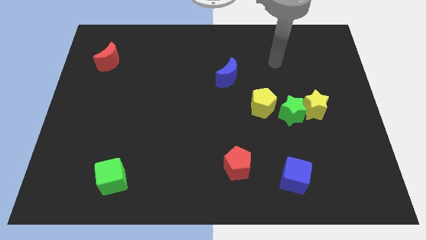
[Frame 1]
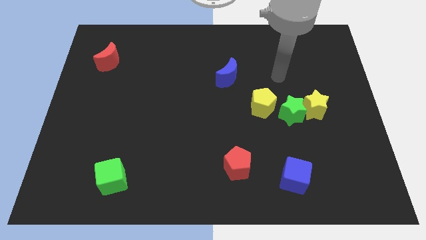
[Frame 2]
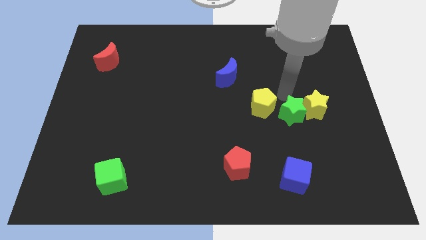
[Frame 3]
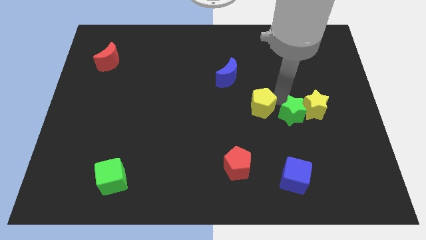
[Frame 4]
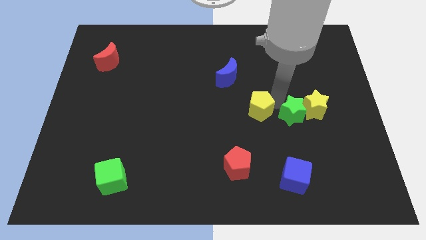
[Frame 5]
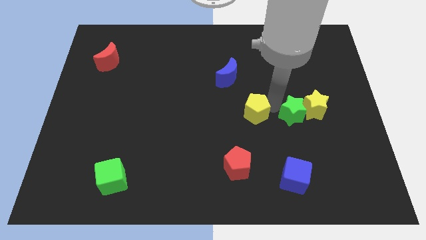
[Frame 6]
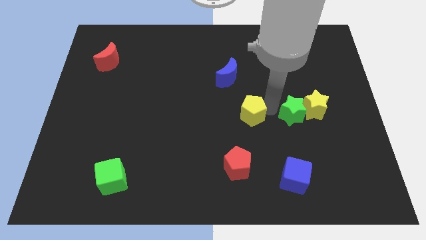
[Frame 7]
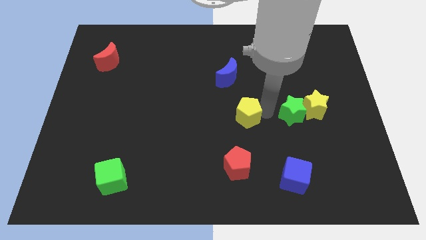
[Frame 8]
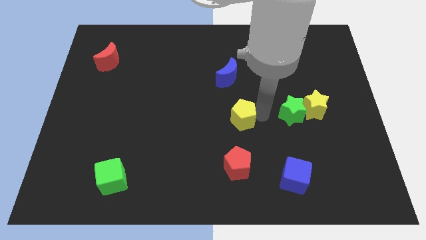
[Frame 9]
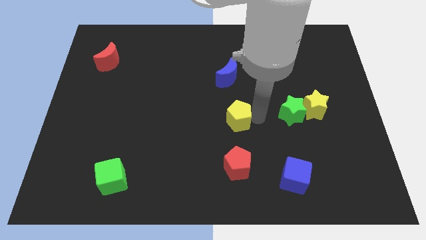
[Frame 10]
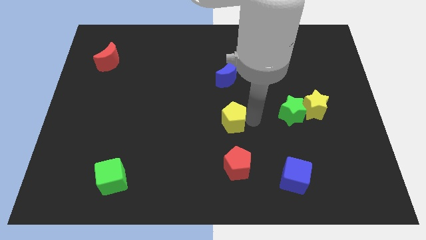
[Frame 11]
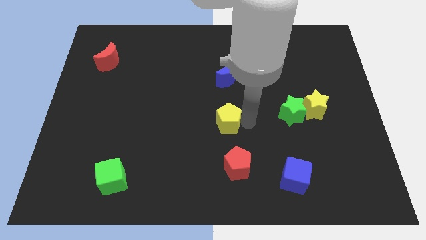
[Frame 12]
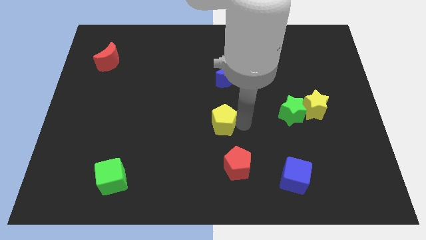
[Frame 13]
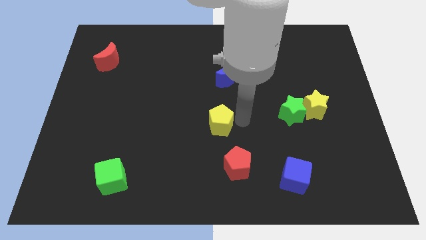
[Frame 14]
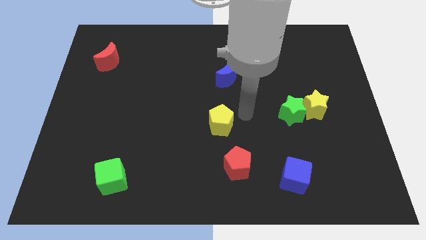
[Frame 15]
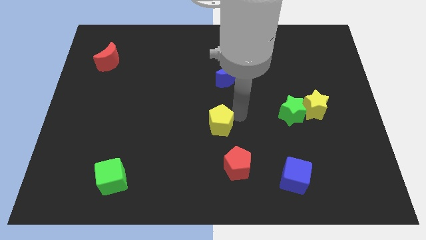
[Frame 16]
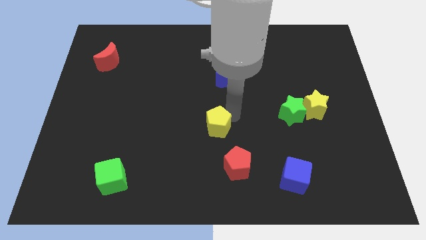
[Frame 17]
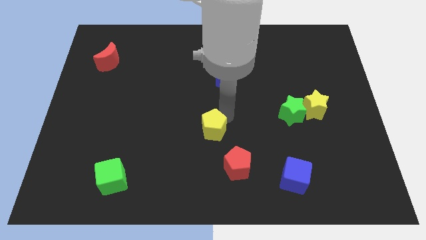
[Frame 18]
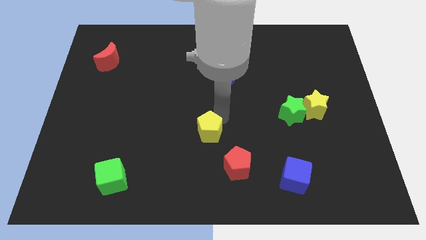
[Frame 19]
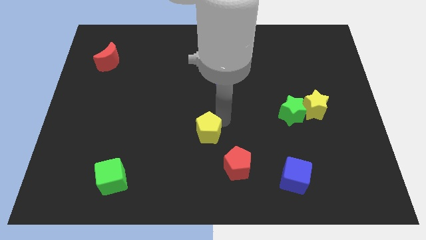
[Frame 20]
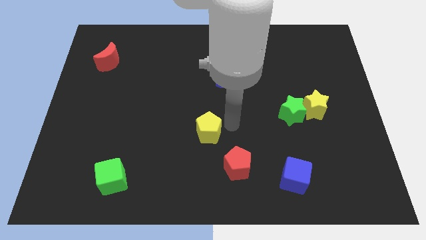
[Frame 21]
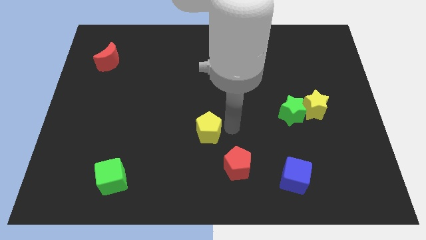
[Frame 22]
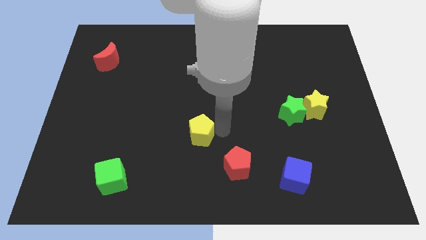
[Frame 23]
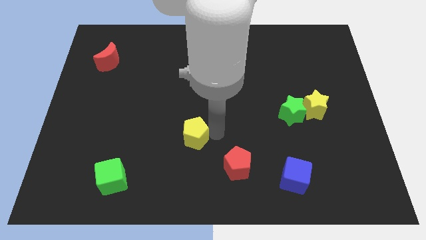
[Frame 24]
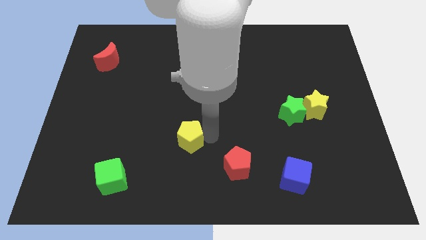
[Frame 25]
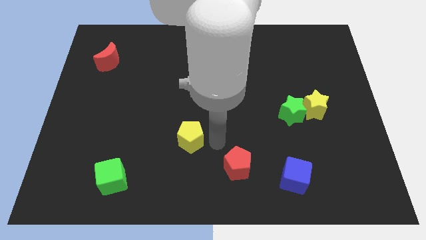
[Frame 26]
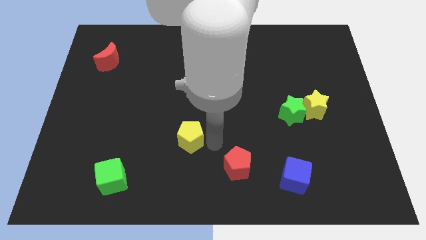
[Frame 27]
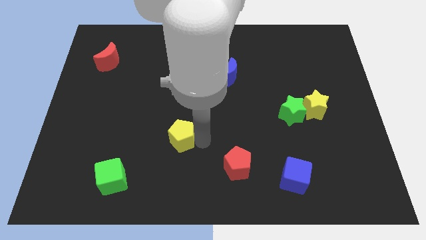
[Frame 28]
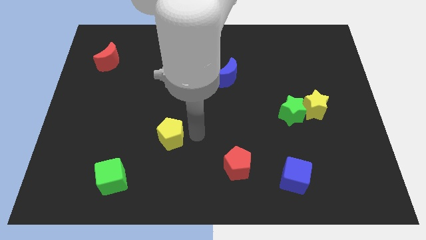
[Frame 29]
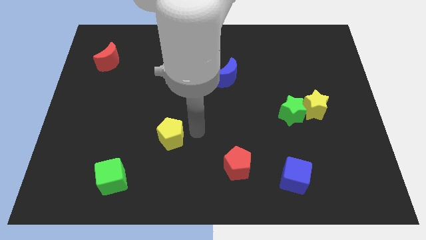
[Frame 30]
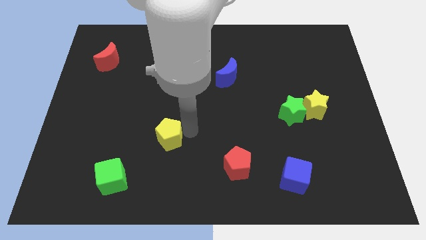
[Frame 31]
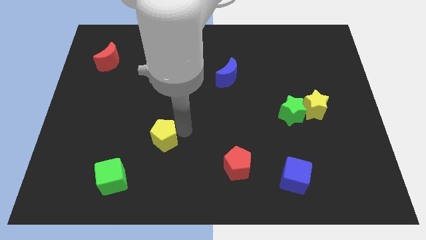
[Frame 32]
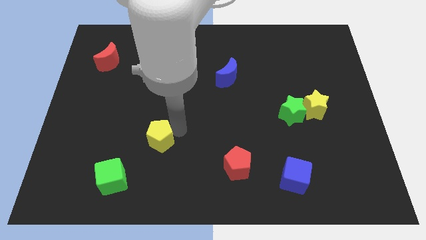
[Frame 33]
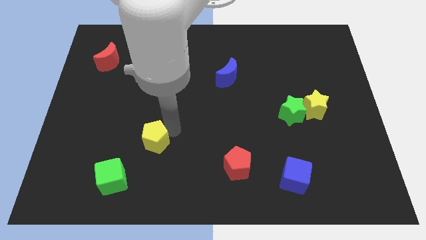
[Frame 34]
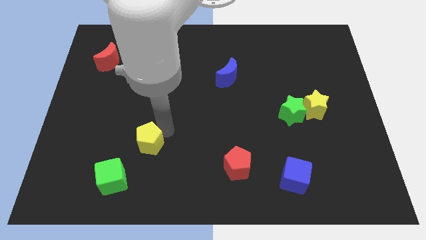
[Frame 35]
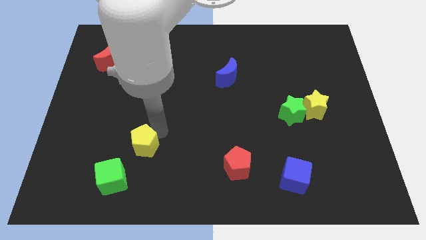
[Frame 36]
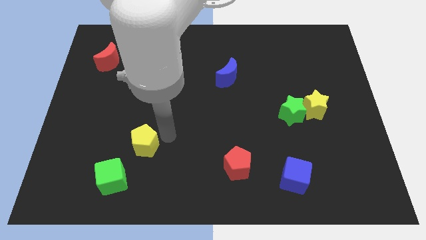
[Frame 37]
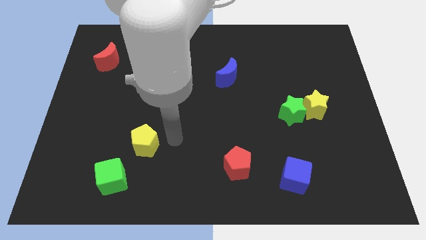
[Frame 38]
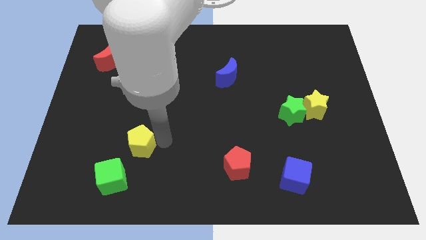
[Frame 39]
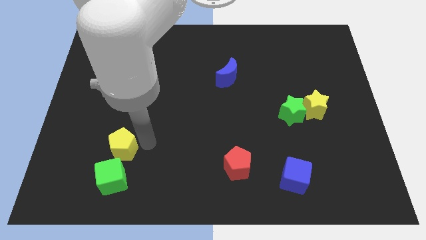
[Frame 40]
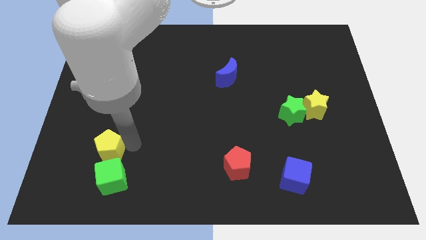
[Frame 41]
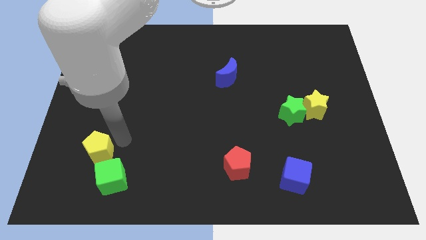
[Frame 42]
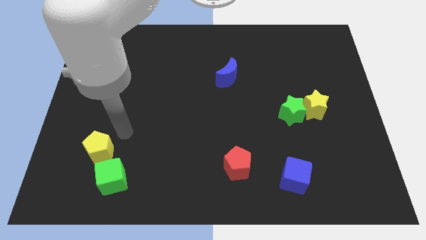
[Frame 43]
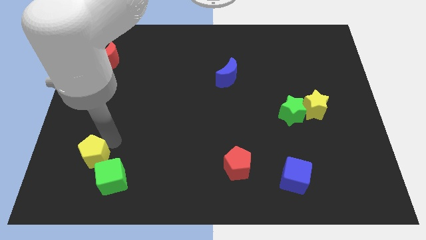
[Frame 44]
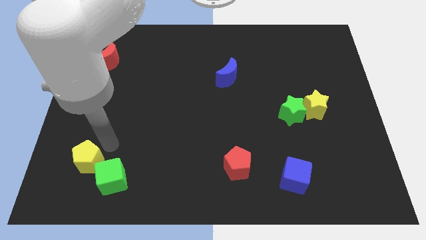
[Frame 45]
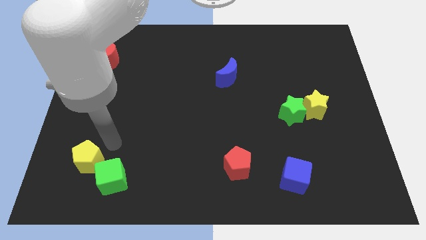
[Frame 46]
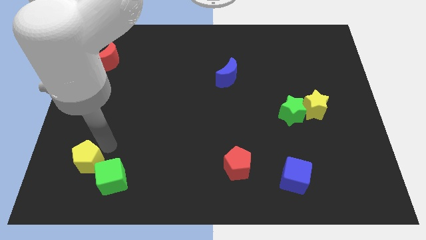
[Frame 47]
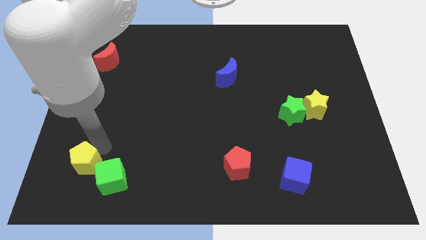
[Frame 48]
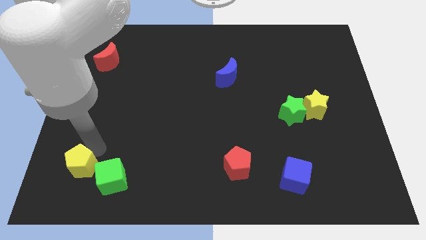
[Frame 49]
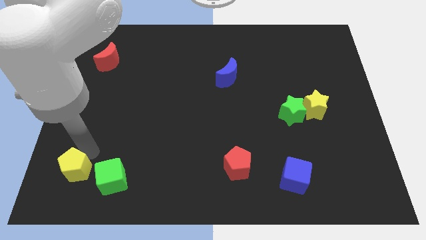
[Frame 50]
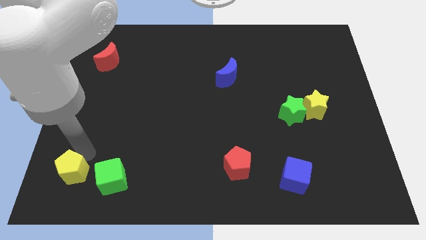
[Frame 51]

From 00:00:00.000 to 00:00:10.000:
put the yellow pentagon to the bottom left of the board
